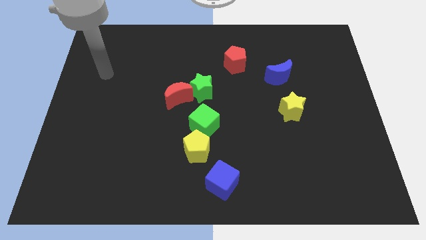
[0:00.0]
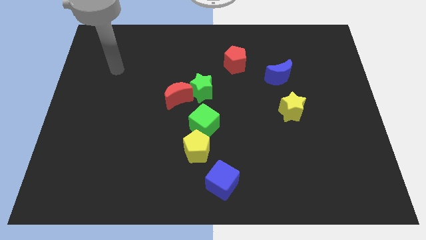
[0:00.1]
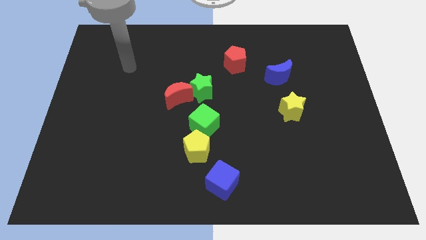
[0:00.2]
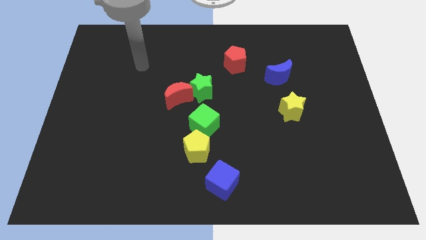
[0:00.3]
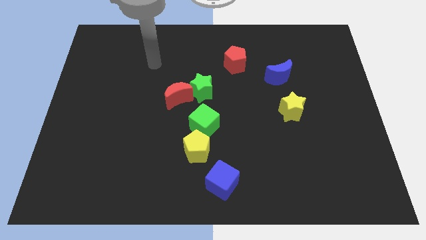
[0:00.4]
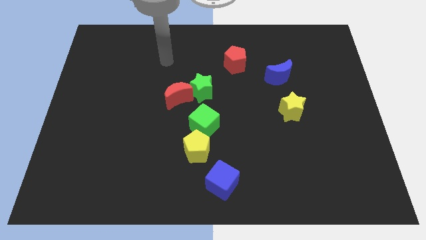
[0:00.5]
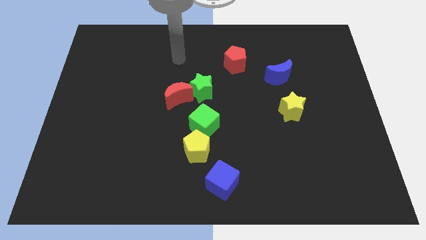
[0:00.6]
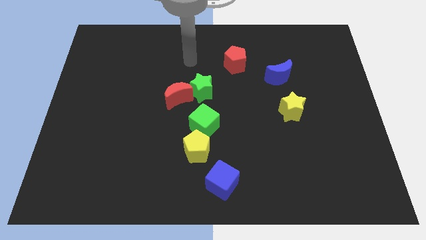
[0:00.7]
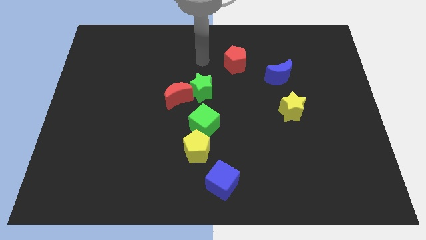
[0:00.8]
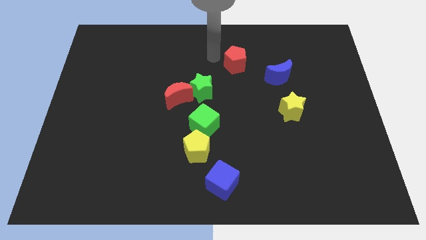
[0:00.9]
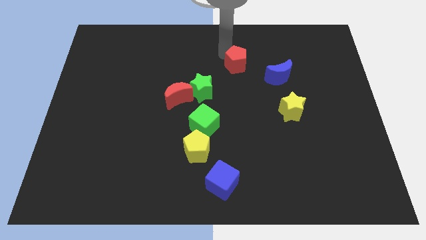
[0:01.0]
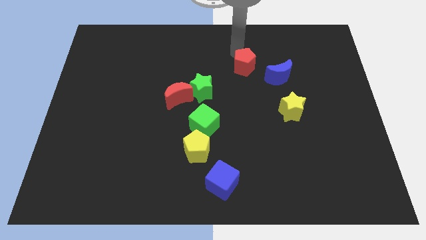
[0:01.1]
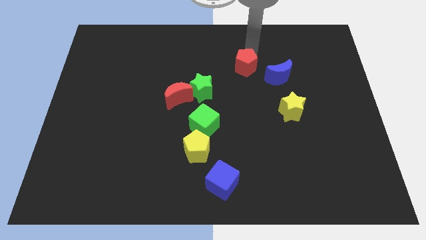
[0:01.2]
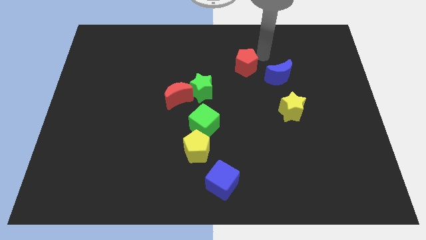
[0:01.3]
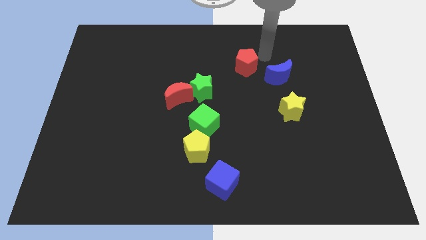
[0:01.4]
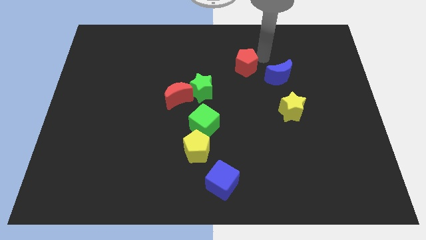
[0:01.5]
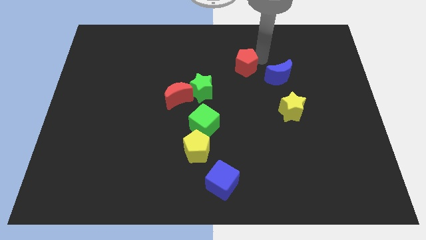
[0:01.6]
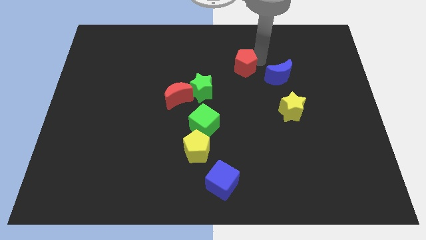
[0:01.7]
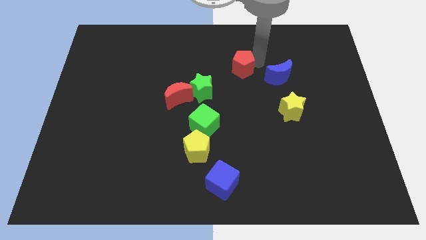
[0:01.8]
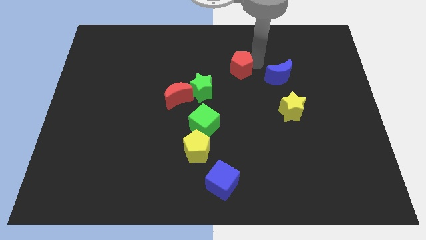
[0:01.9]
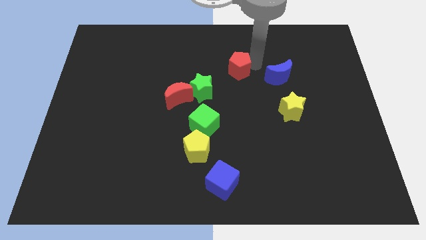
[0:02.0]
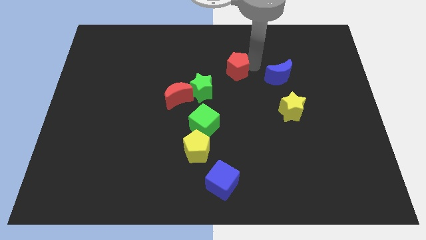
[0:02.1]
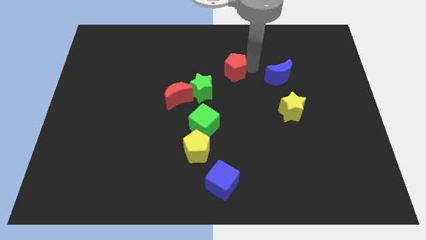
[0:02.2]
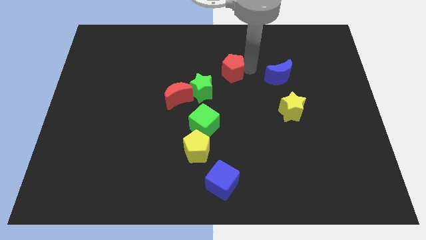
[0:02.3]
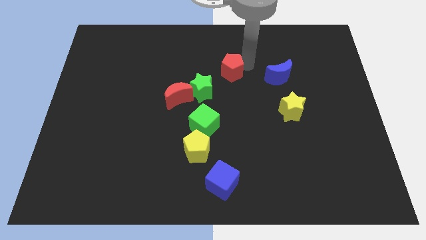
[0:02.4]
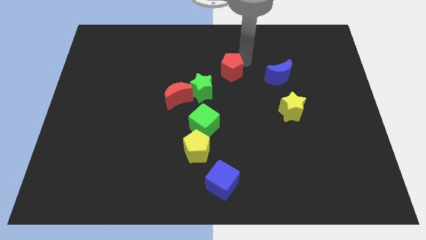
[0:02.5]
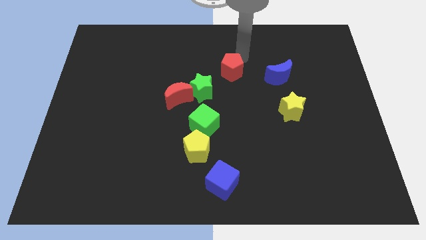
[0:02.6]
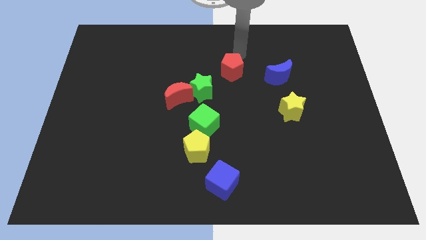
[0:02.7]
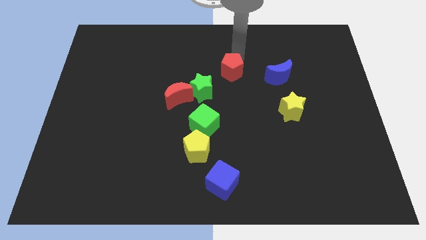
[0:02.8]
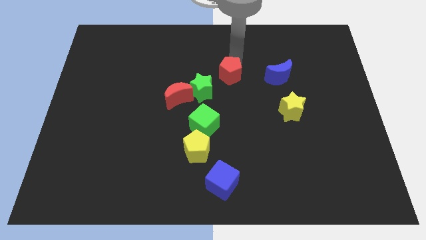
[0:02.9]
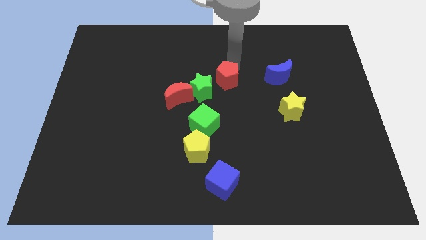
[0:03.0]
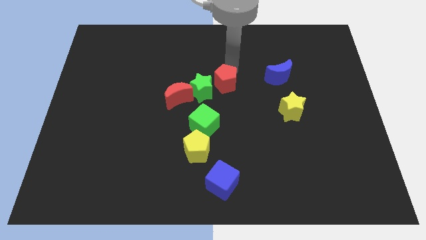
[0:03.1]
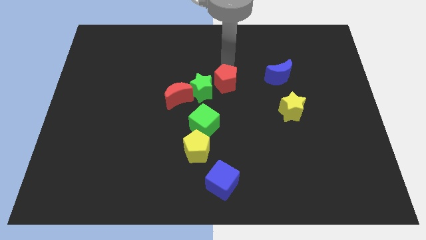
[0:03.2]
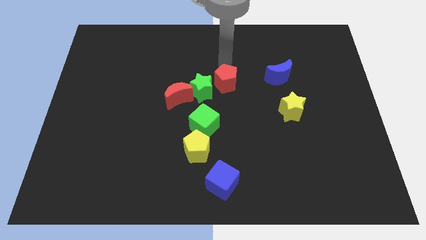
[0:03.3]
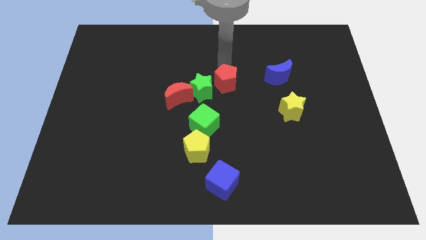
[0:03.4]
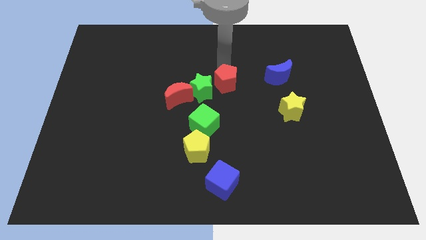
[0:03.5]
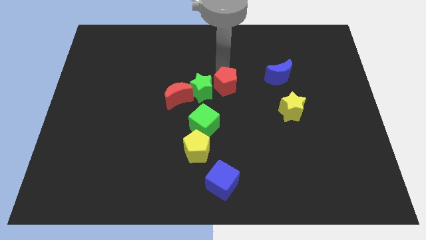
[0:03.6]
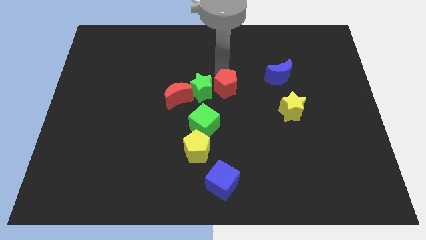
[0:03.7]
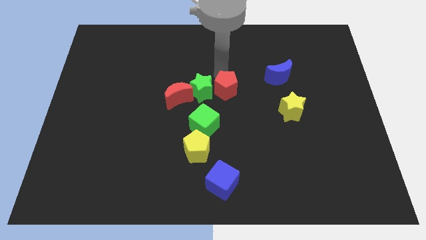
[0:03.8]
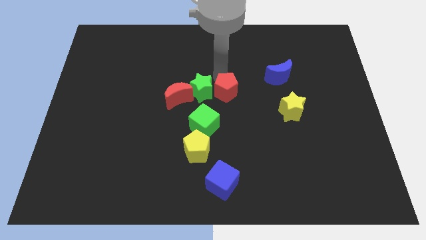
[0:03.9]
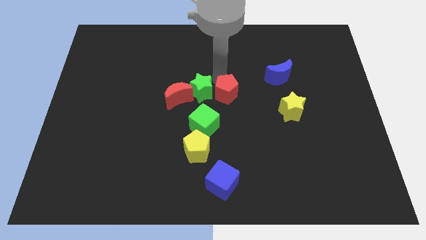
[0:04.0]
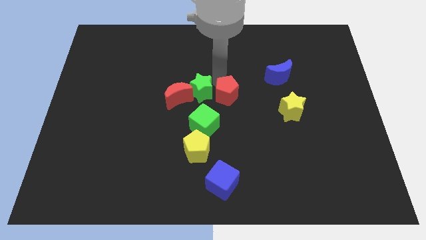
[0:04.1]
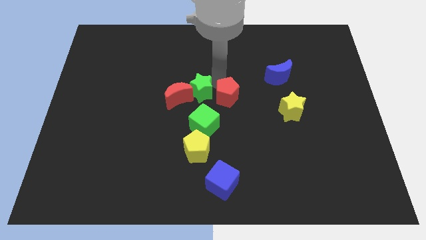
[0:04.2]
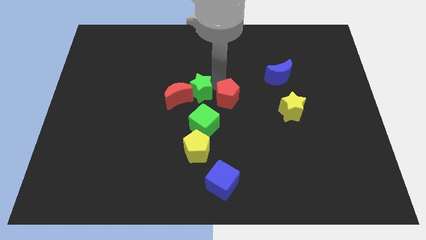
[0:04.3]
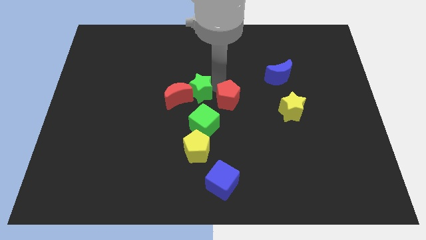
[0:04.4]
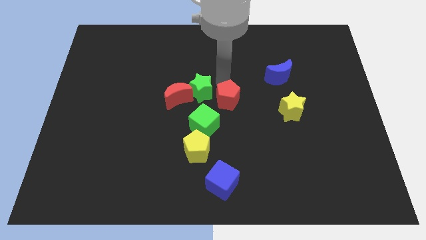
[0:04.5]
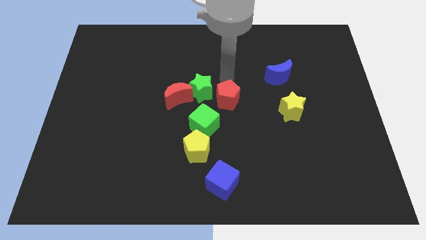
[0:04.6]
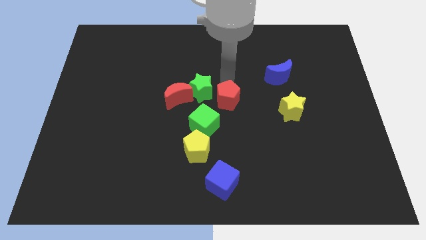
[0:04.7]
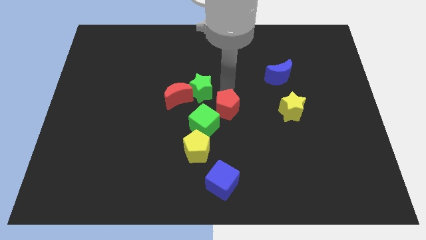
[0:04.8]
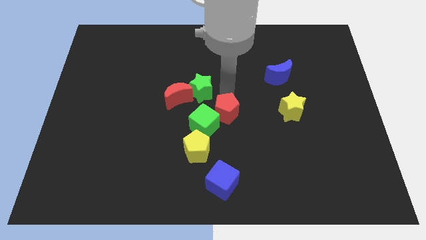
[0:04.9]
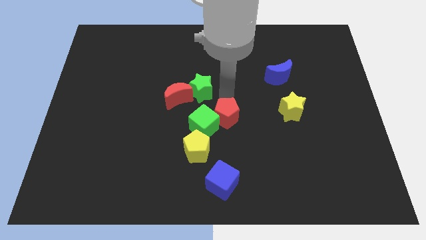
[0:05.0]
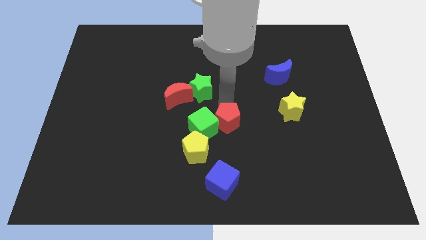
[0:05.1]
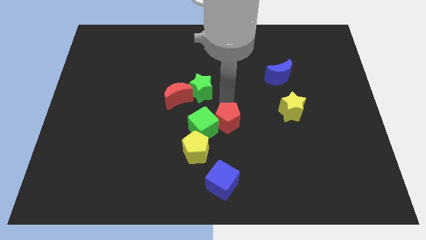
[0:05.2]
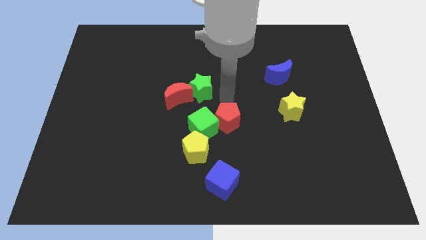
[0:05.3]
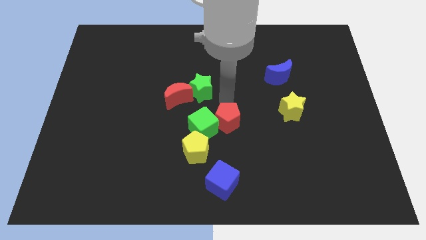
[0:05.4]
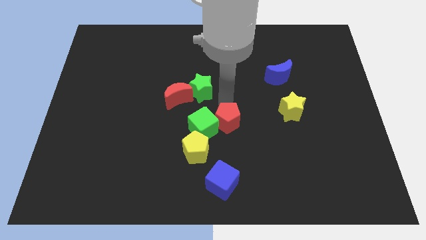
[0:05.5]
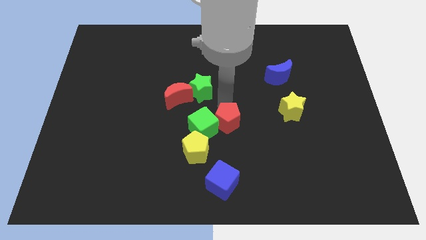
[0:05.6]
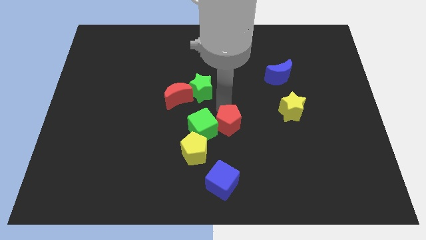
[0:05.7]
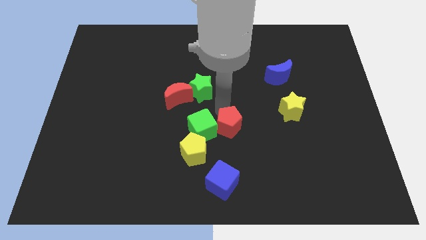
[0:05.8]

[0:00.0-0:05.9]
put the red pentagon diagonally down and to the right of the green cube

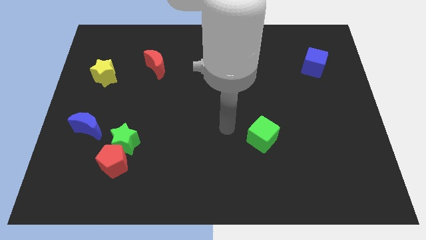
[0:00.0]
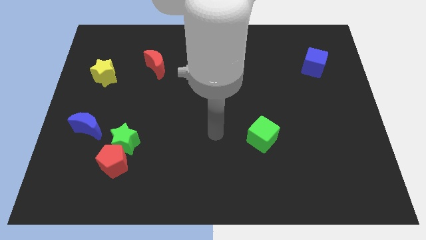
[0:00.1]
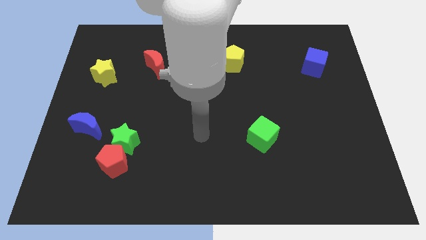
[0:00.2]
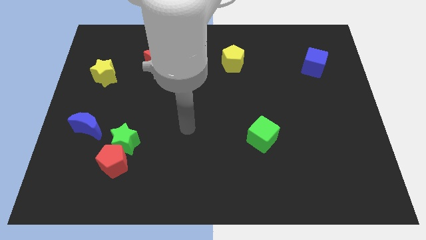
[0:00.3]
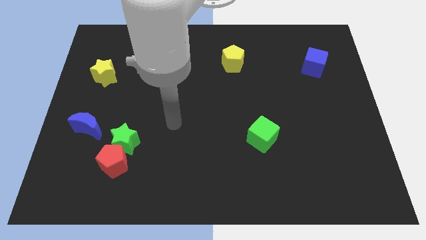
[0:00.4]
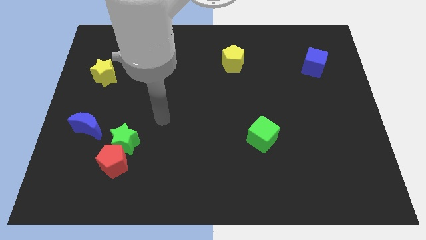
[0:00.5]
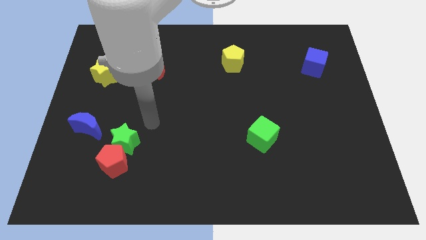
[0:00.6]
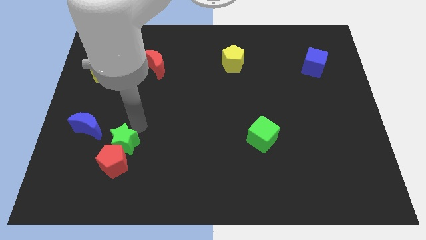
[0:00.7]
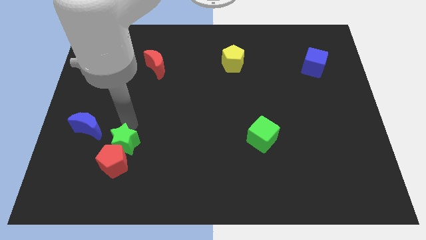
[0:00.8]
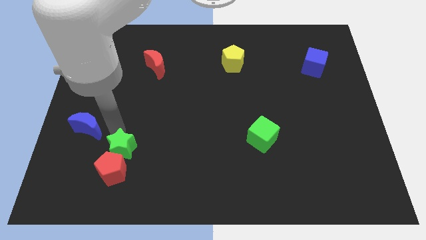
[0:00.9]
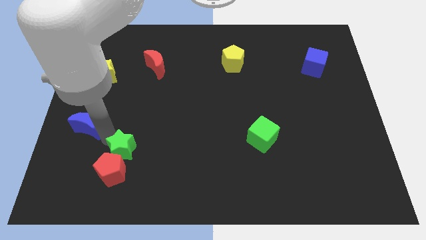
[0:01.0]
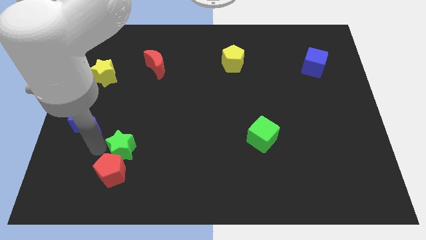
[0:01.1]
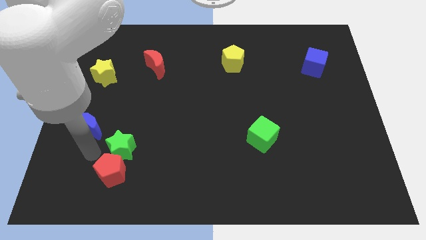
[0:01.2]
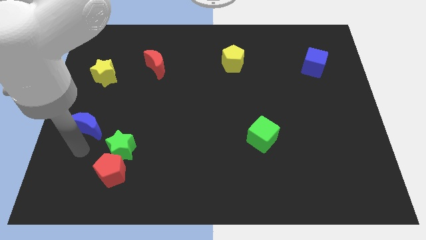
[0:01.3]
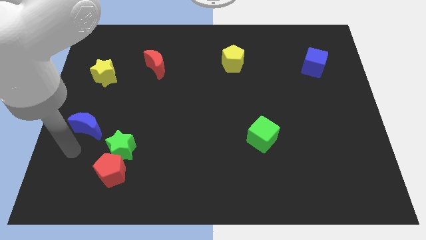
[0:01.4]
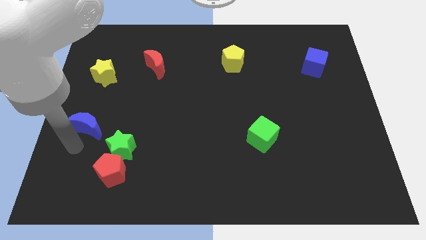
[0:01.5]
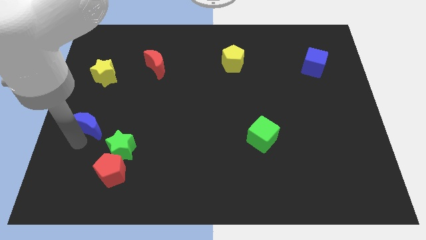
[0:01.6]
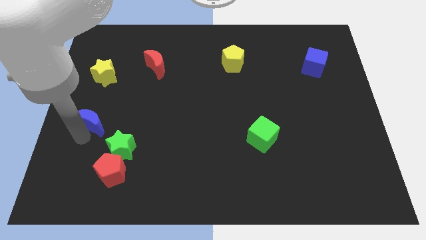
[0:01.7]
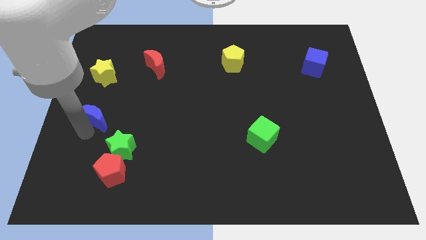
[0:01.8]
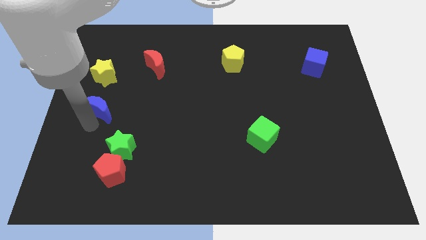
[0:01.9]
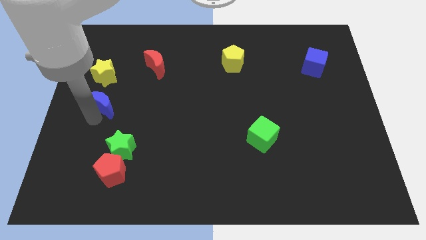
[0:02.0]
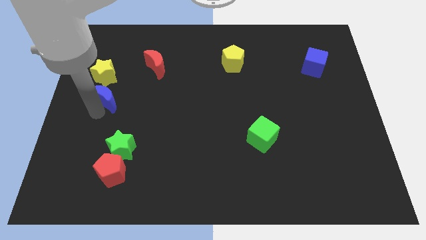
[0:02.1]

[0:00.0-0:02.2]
slide the blue moon to the bottom right side of the yellow star
